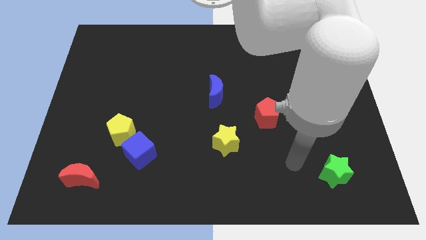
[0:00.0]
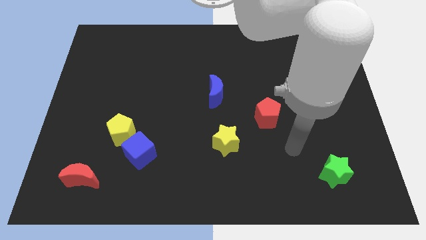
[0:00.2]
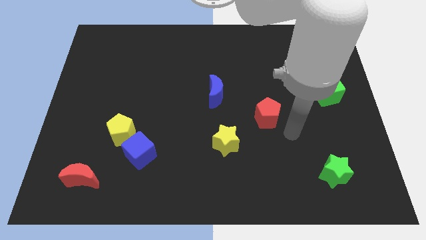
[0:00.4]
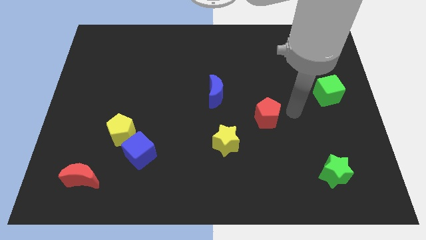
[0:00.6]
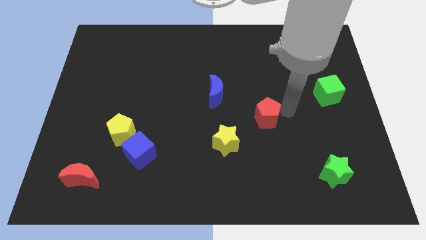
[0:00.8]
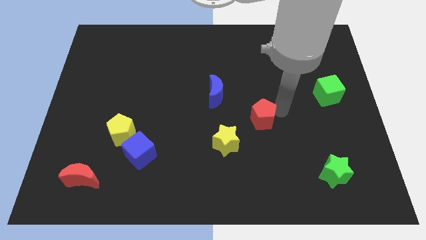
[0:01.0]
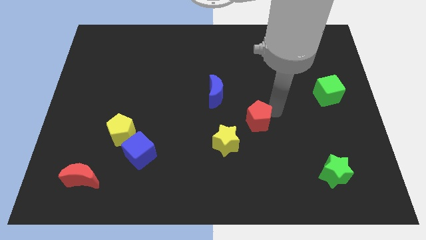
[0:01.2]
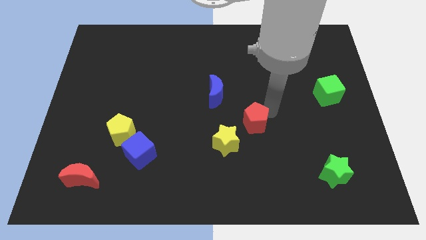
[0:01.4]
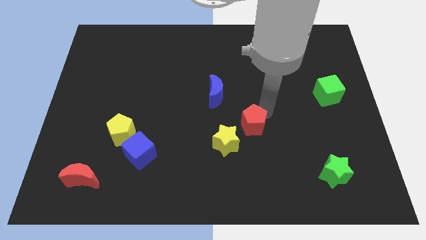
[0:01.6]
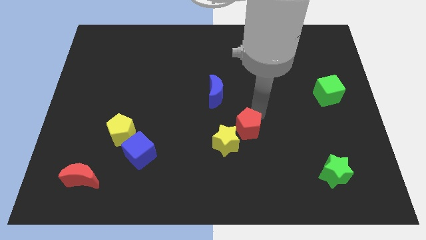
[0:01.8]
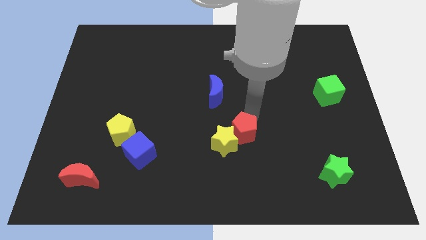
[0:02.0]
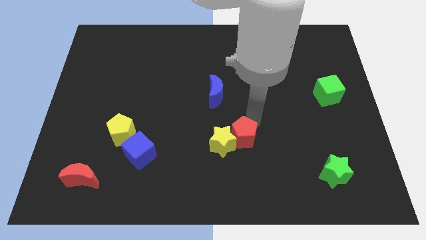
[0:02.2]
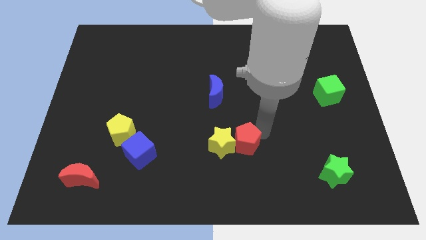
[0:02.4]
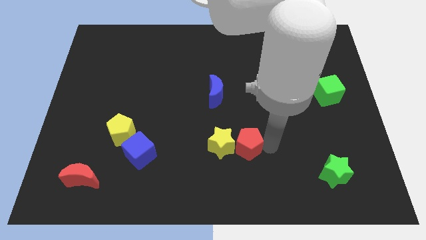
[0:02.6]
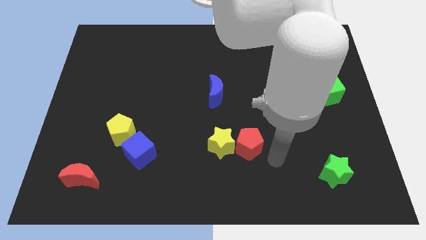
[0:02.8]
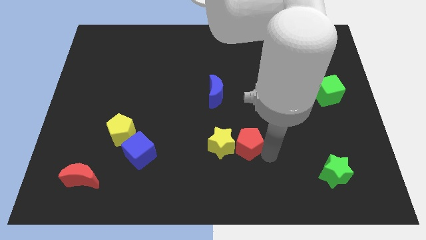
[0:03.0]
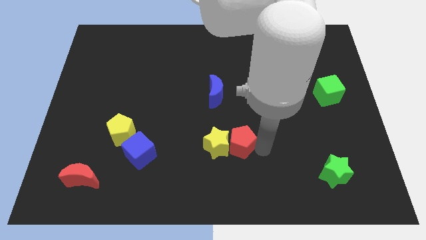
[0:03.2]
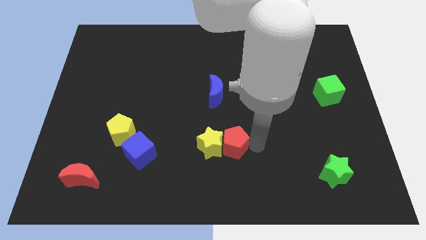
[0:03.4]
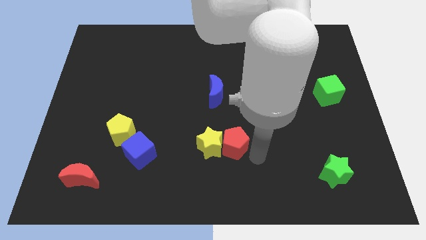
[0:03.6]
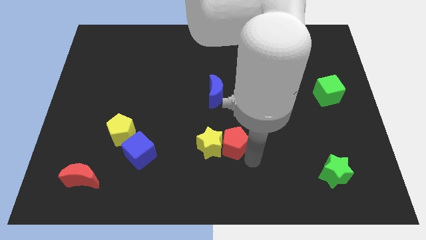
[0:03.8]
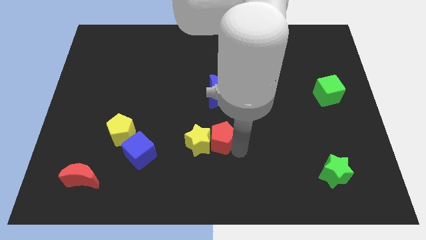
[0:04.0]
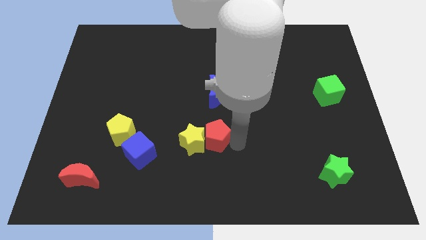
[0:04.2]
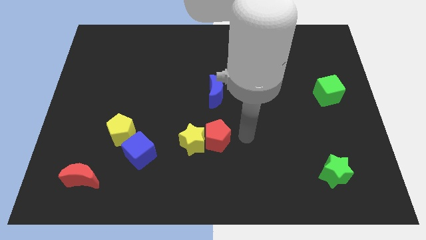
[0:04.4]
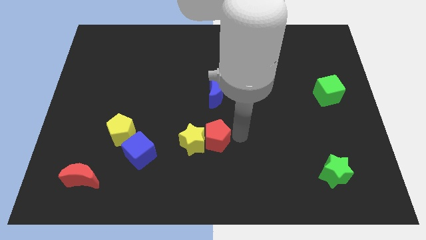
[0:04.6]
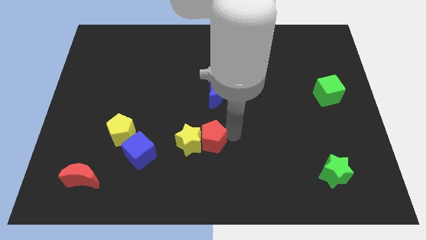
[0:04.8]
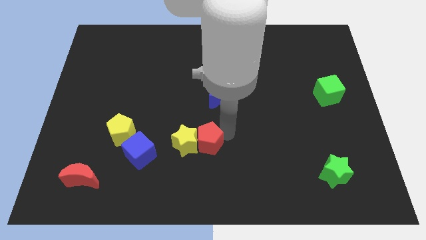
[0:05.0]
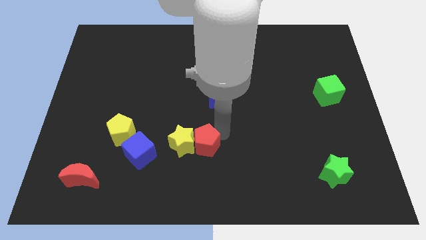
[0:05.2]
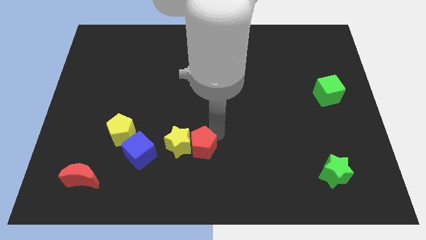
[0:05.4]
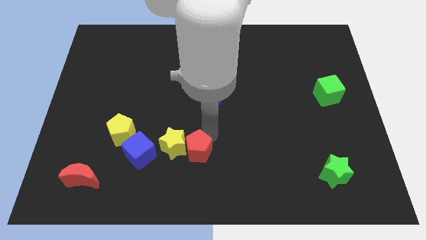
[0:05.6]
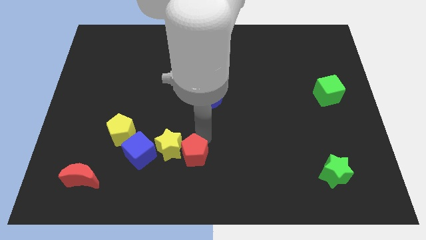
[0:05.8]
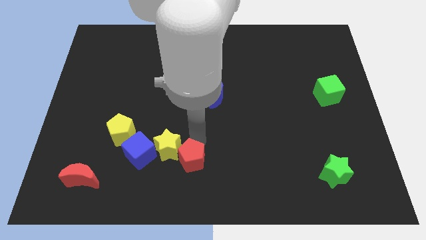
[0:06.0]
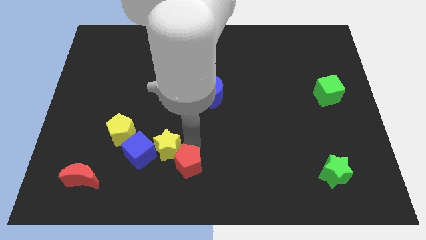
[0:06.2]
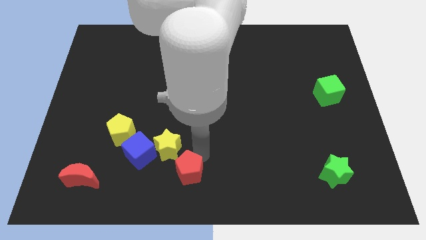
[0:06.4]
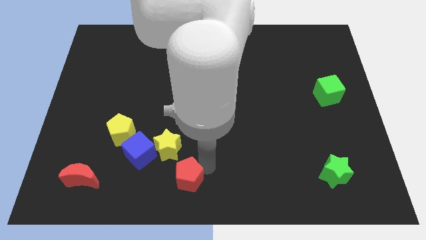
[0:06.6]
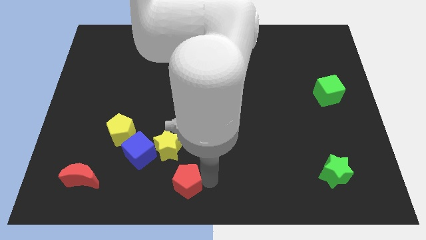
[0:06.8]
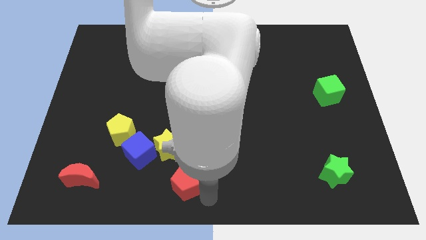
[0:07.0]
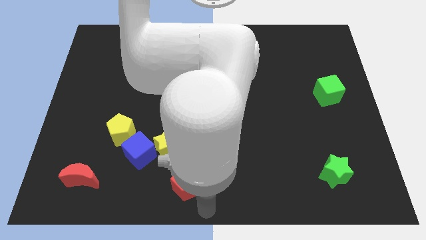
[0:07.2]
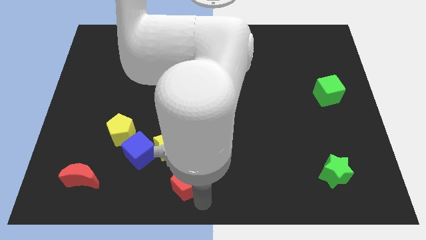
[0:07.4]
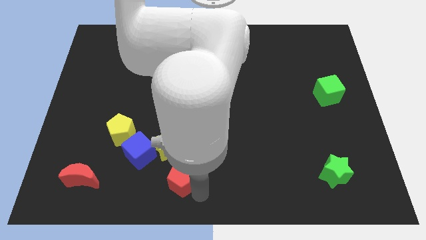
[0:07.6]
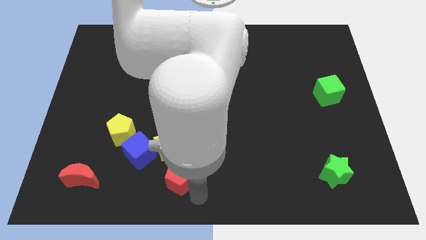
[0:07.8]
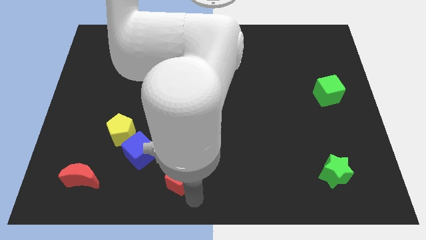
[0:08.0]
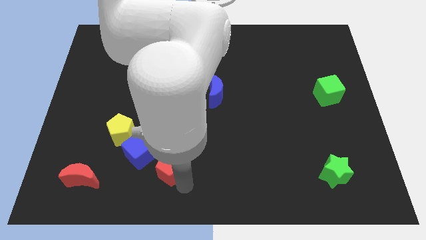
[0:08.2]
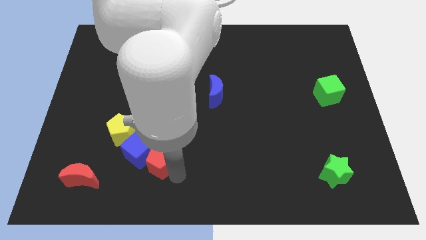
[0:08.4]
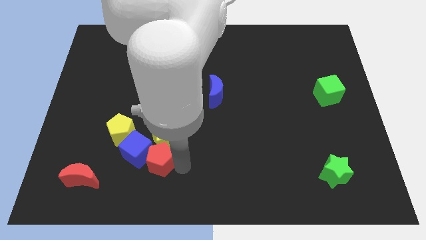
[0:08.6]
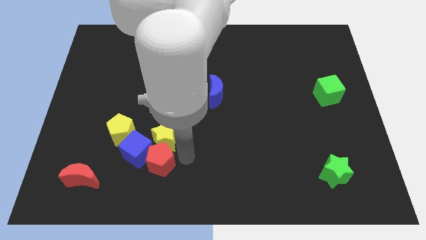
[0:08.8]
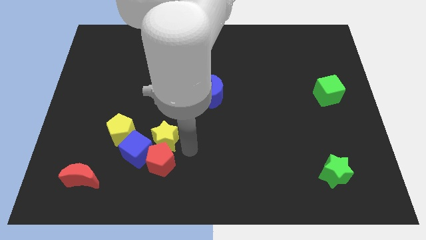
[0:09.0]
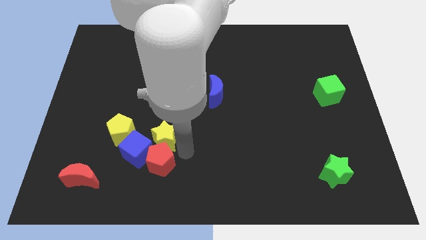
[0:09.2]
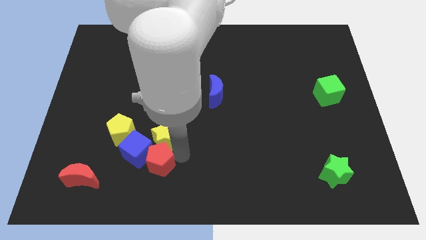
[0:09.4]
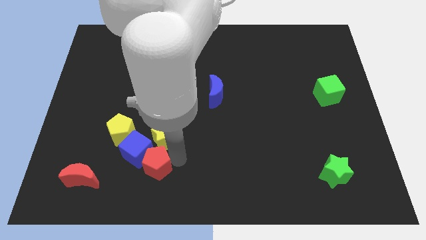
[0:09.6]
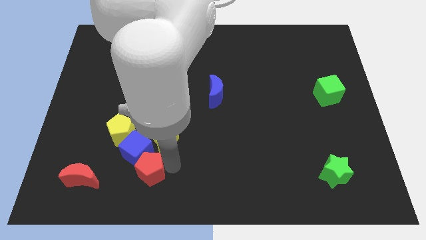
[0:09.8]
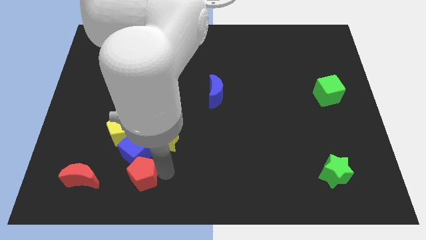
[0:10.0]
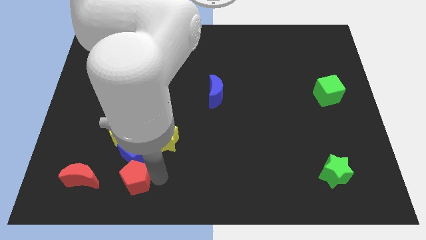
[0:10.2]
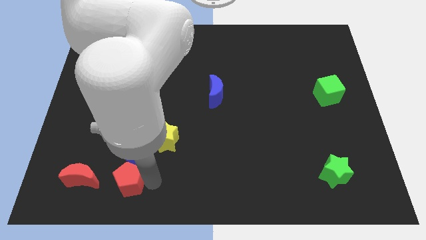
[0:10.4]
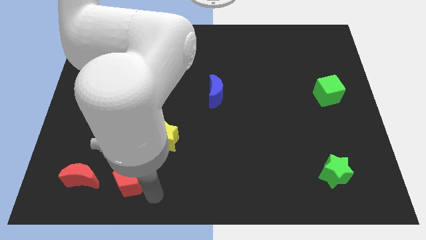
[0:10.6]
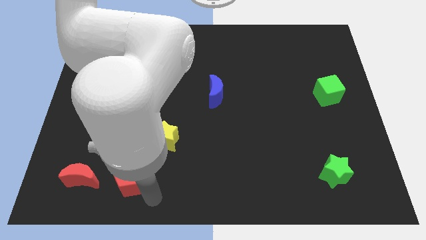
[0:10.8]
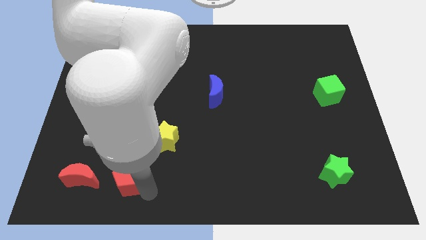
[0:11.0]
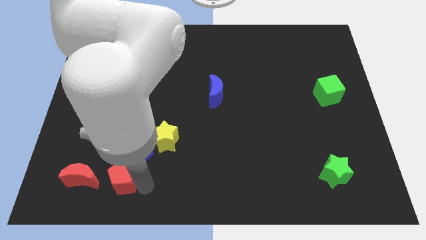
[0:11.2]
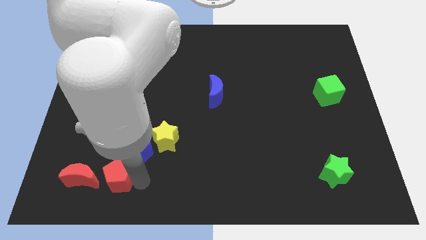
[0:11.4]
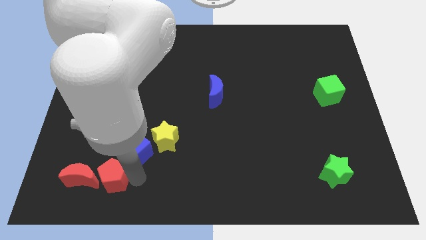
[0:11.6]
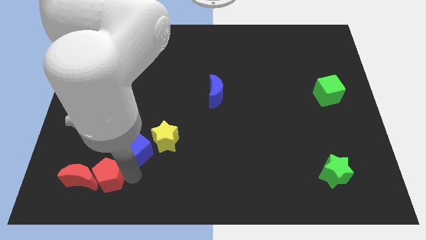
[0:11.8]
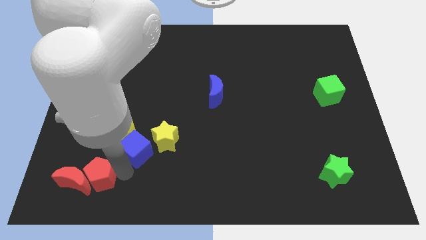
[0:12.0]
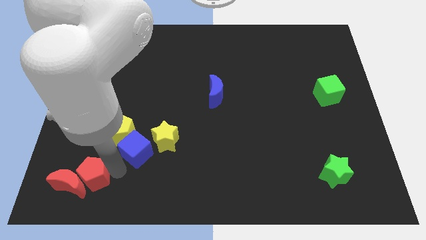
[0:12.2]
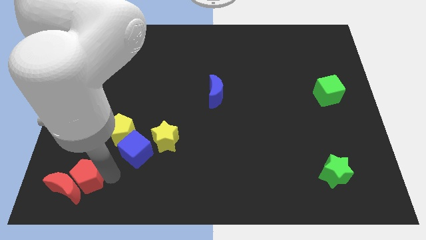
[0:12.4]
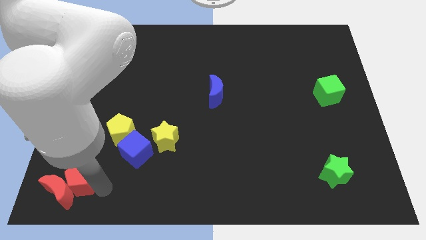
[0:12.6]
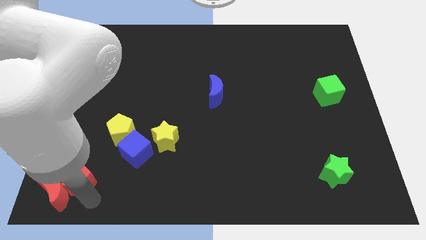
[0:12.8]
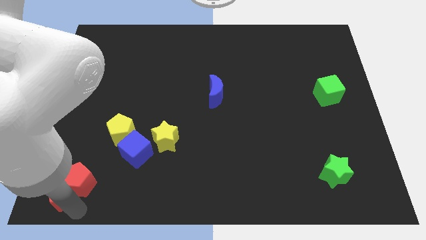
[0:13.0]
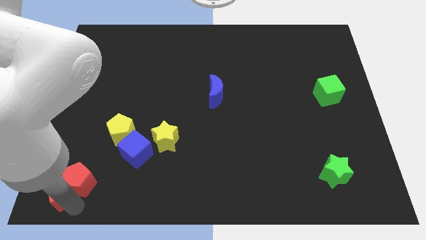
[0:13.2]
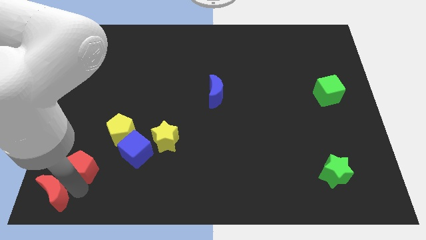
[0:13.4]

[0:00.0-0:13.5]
slide the red pentagon to the left side of the blue cube

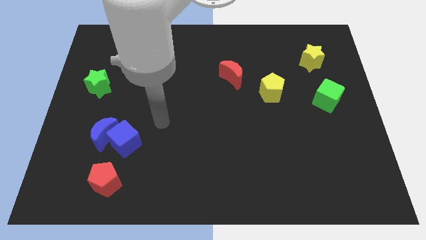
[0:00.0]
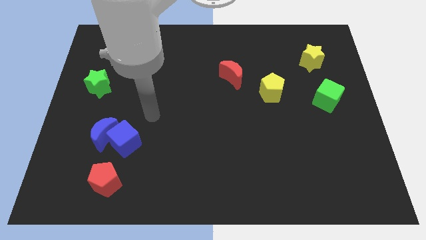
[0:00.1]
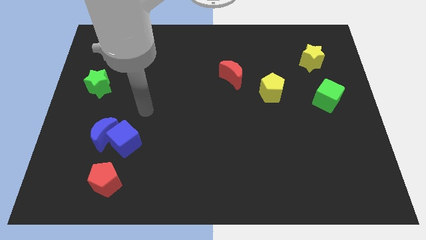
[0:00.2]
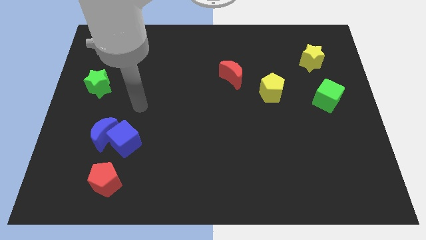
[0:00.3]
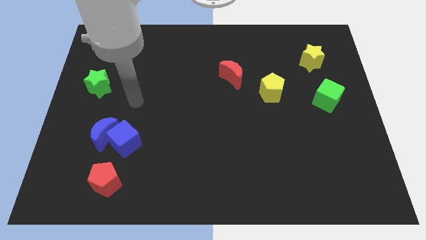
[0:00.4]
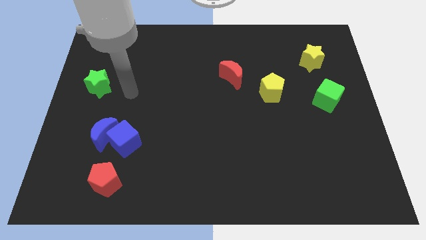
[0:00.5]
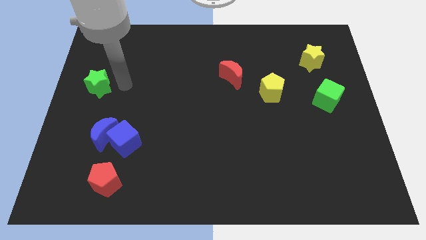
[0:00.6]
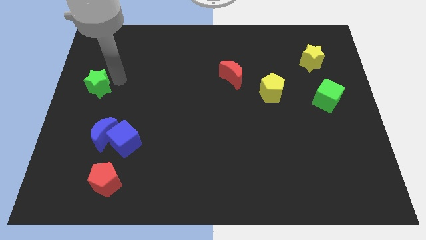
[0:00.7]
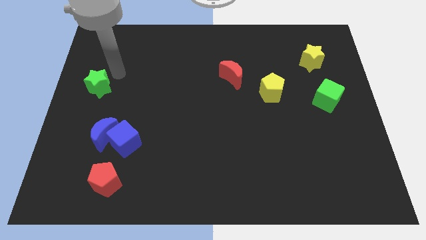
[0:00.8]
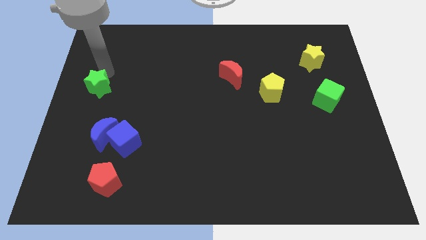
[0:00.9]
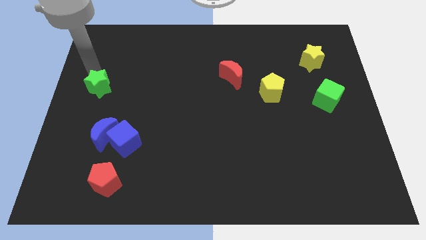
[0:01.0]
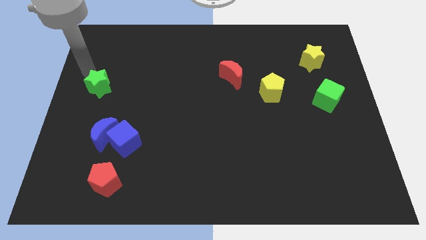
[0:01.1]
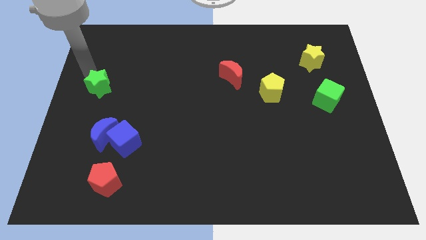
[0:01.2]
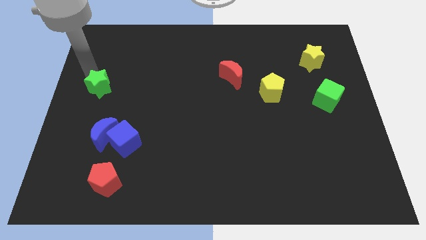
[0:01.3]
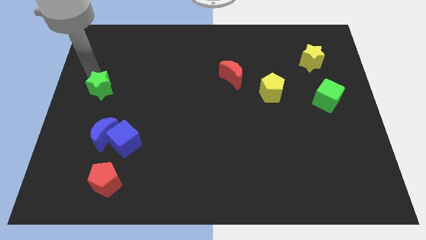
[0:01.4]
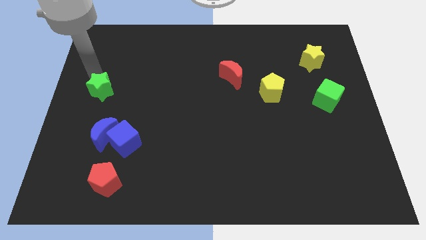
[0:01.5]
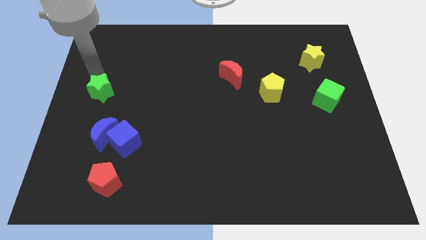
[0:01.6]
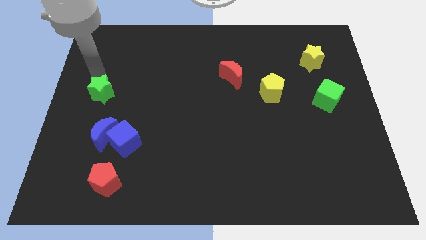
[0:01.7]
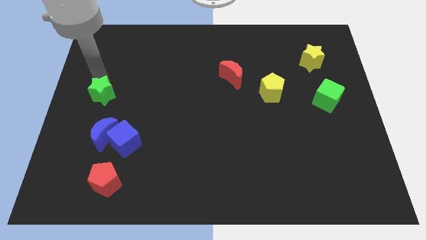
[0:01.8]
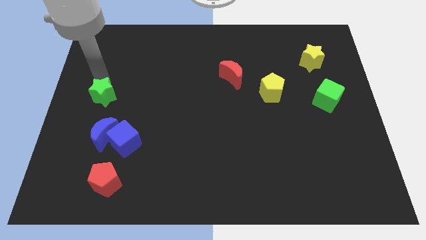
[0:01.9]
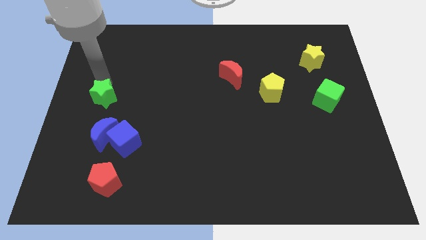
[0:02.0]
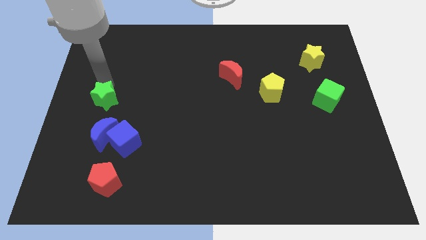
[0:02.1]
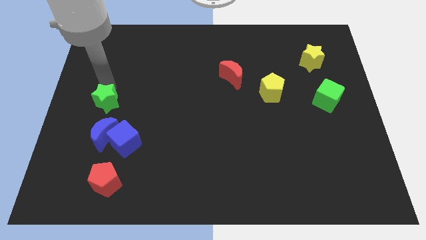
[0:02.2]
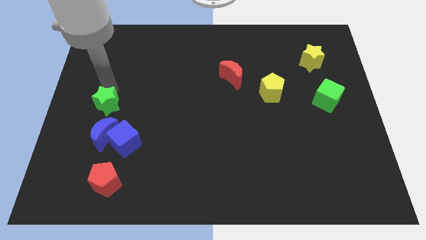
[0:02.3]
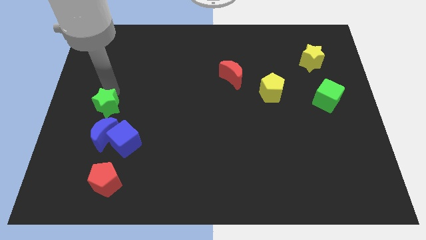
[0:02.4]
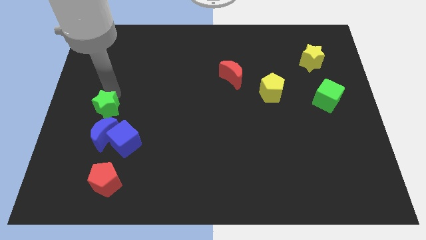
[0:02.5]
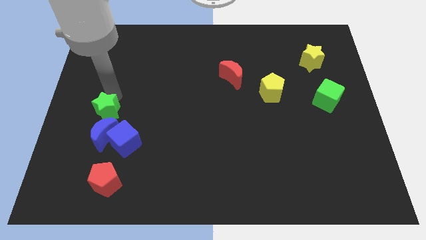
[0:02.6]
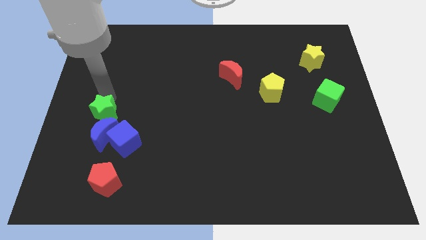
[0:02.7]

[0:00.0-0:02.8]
push the green star diagonally up and to the right of the blue moon
